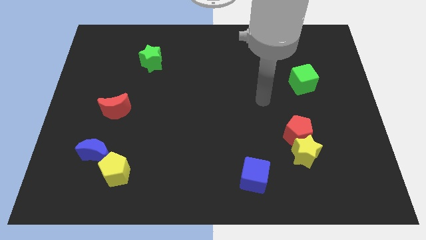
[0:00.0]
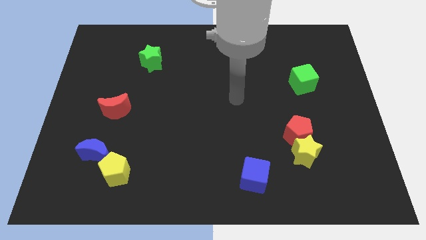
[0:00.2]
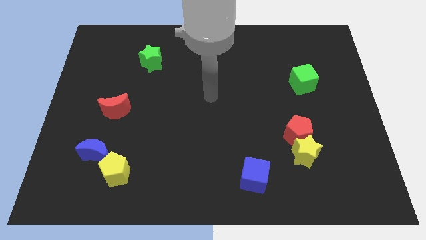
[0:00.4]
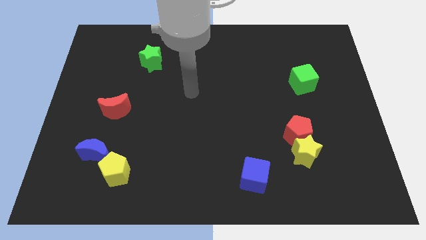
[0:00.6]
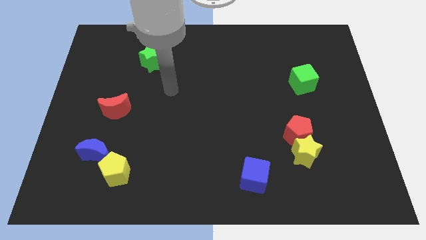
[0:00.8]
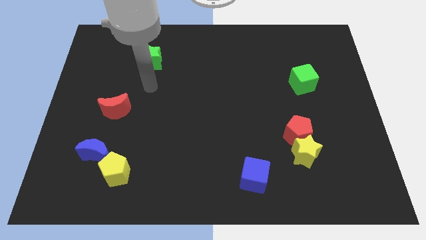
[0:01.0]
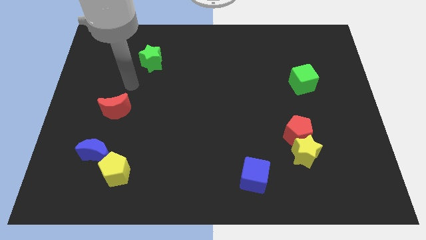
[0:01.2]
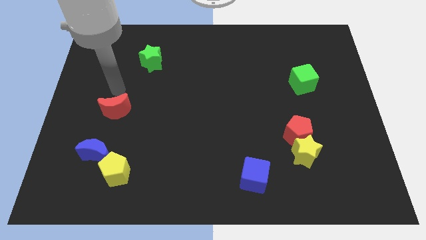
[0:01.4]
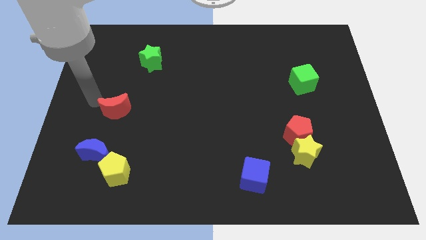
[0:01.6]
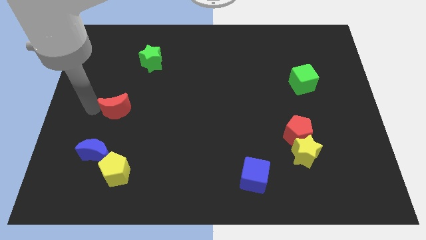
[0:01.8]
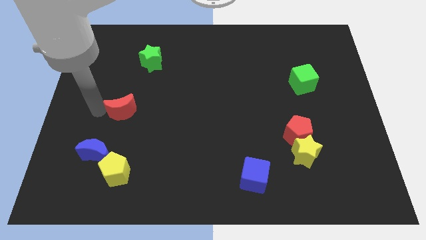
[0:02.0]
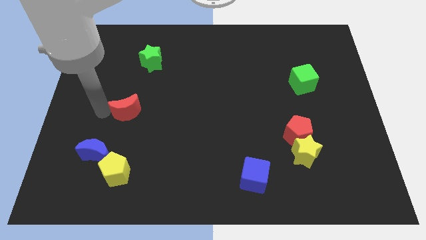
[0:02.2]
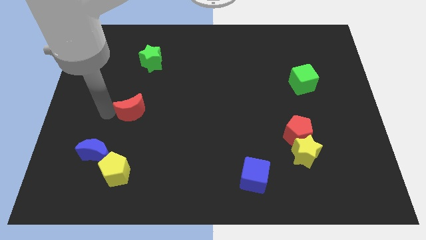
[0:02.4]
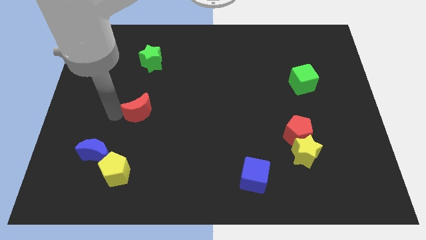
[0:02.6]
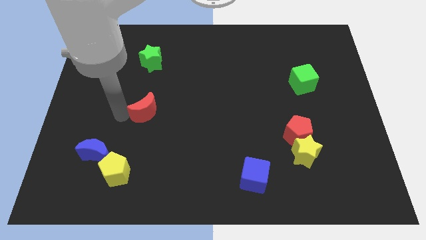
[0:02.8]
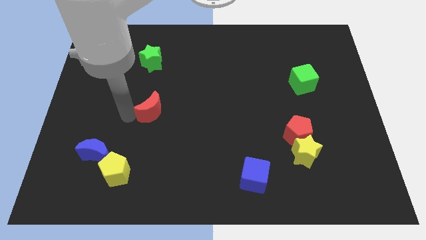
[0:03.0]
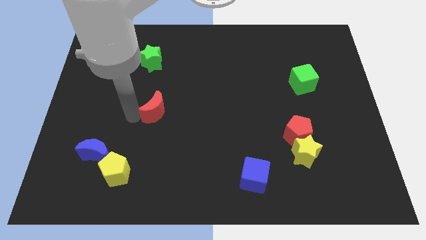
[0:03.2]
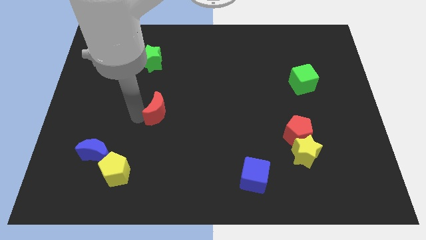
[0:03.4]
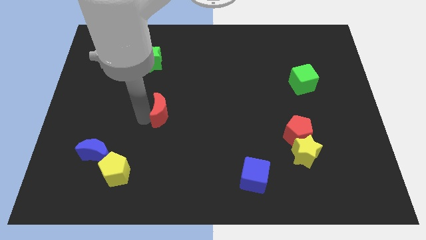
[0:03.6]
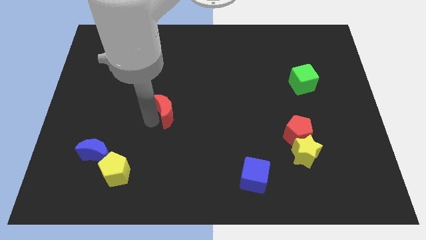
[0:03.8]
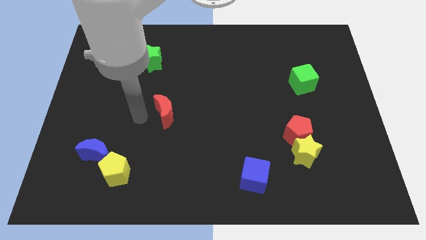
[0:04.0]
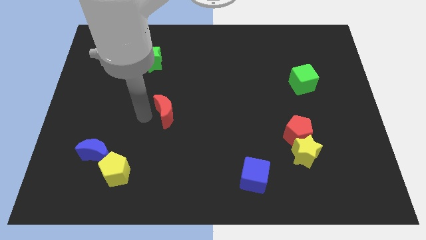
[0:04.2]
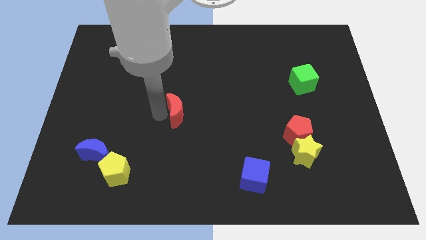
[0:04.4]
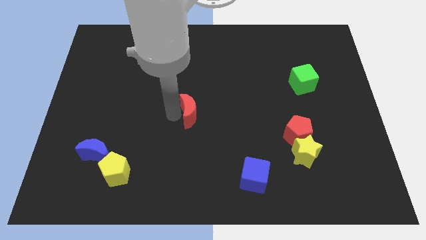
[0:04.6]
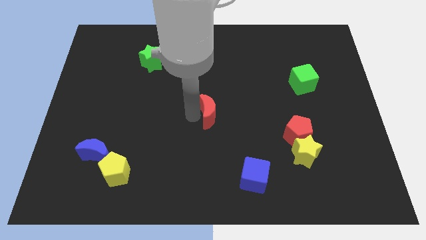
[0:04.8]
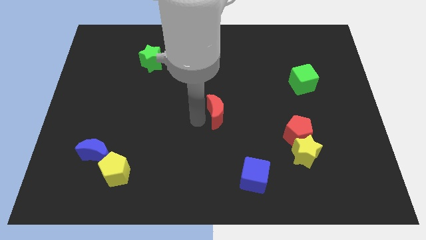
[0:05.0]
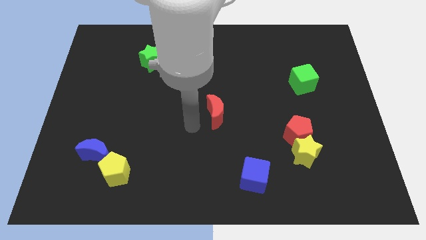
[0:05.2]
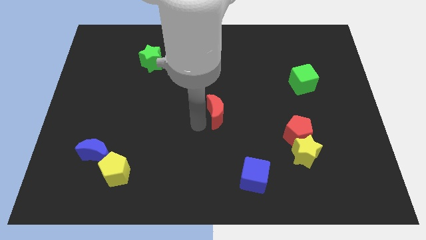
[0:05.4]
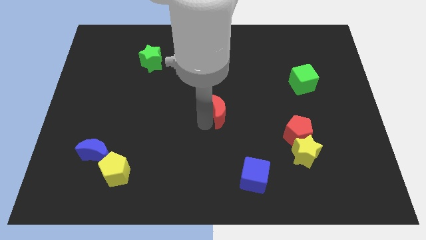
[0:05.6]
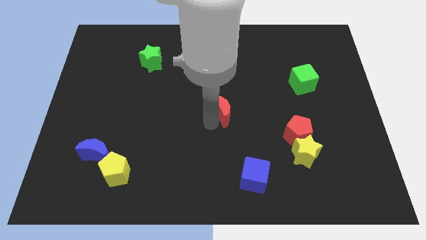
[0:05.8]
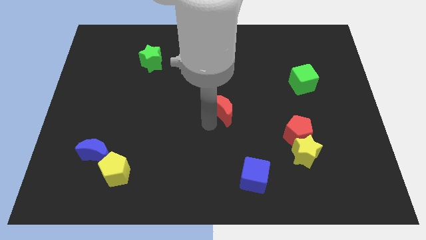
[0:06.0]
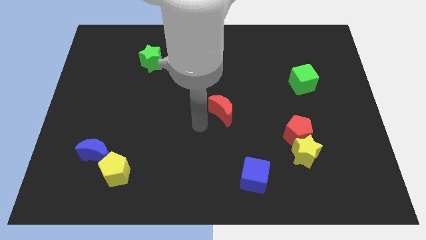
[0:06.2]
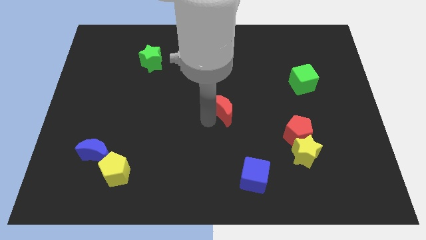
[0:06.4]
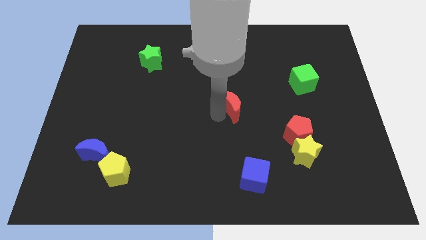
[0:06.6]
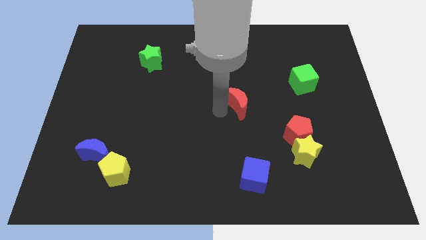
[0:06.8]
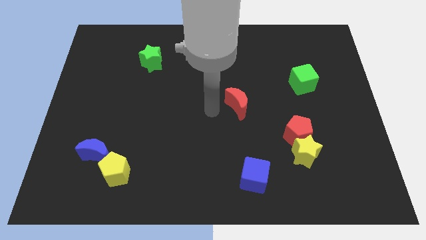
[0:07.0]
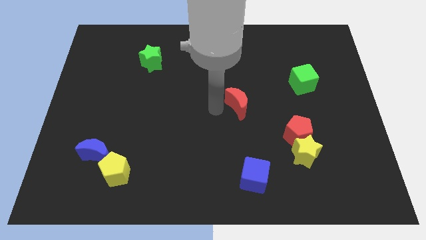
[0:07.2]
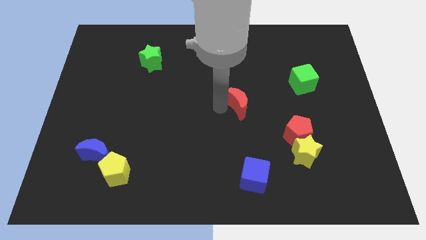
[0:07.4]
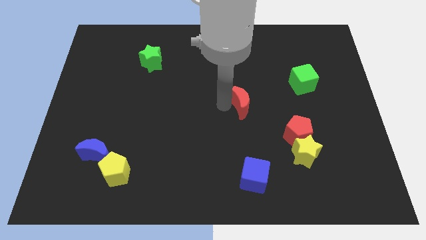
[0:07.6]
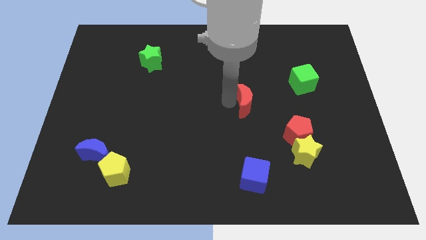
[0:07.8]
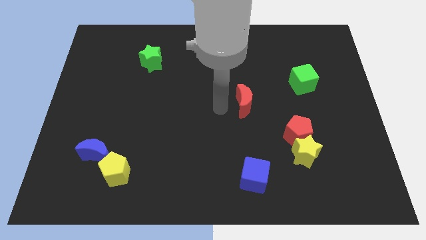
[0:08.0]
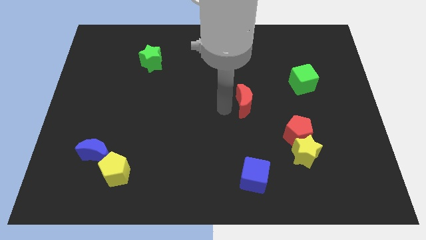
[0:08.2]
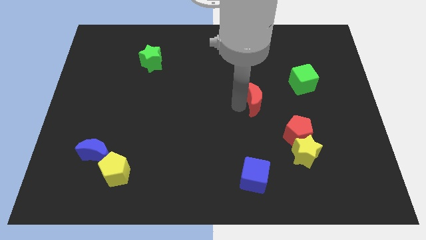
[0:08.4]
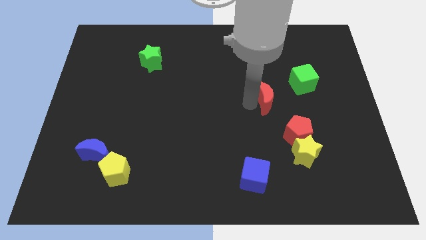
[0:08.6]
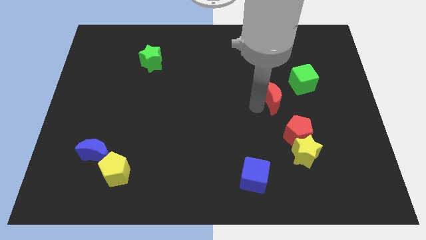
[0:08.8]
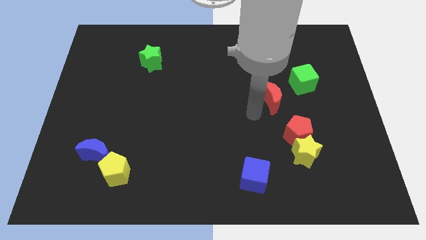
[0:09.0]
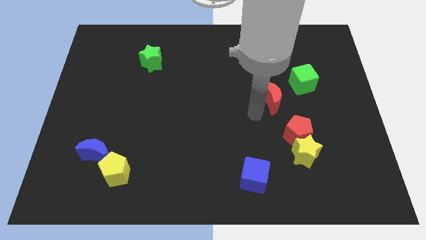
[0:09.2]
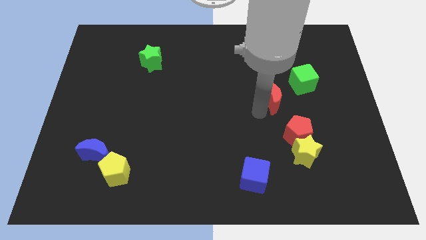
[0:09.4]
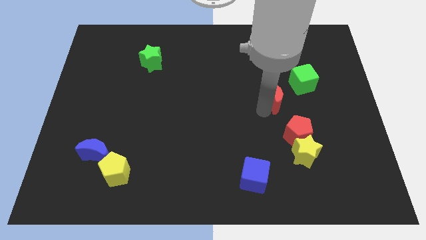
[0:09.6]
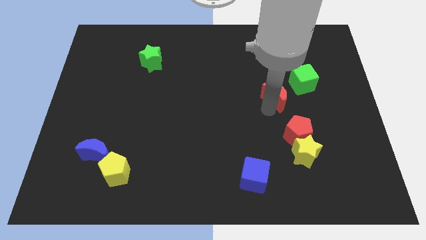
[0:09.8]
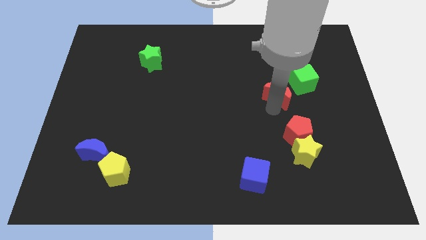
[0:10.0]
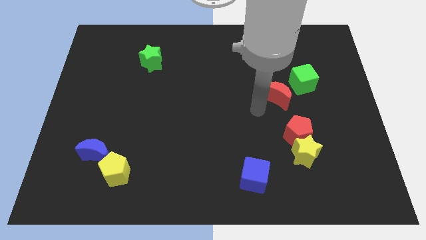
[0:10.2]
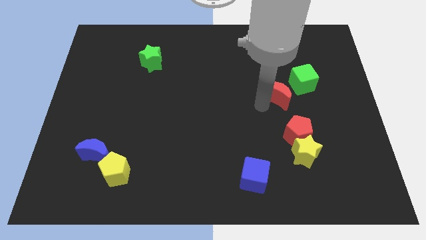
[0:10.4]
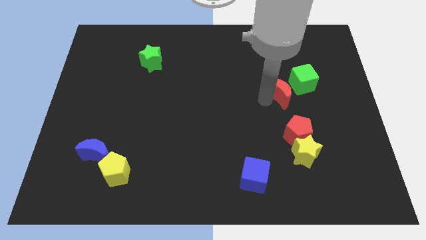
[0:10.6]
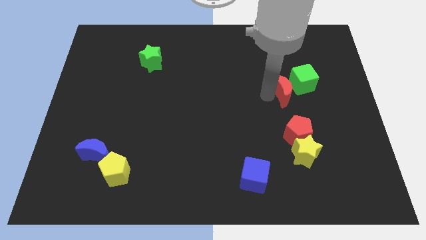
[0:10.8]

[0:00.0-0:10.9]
move the red moon to the green cube

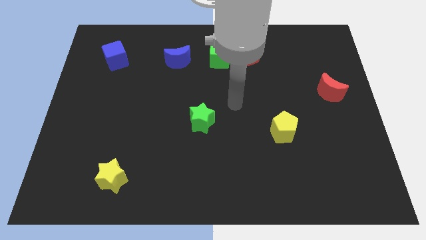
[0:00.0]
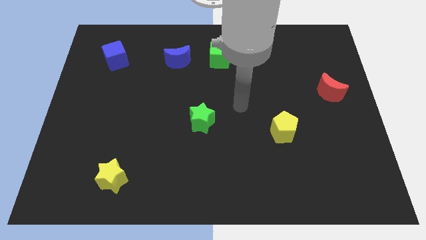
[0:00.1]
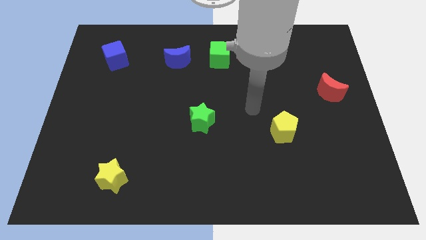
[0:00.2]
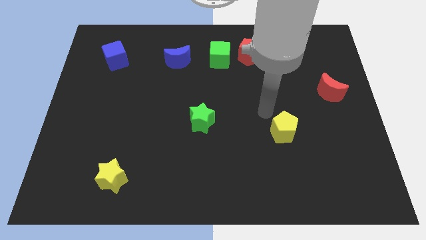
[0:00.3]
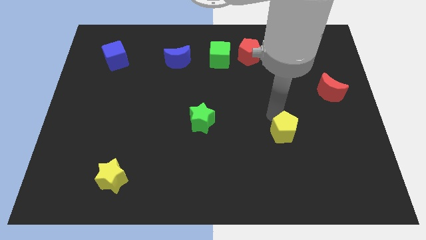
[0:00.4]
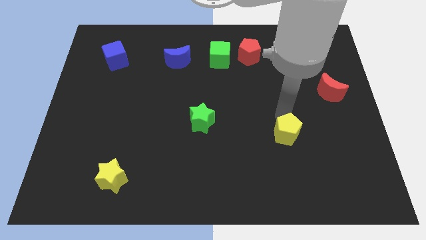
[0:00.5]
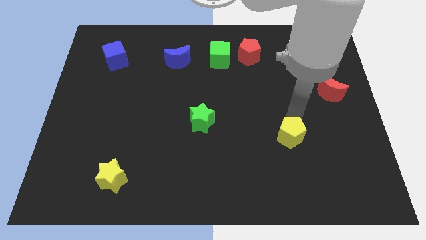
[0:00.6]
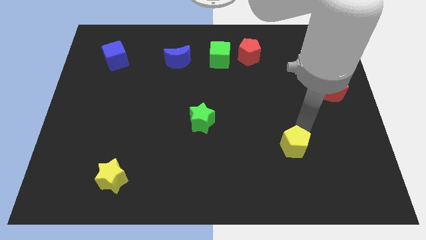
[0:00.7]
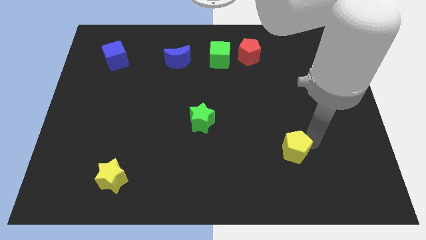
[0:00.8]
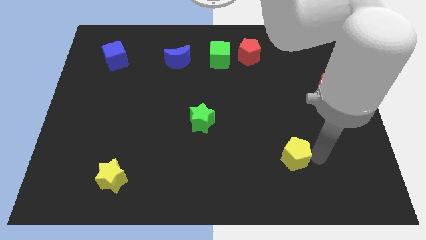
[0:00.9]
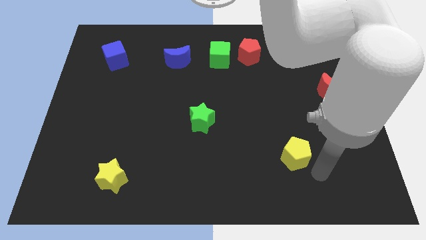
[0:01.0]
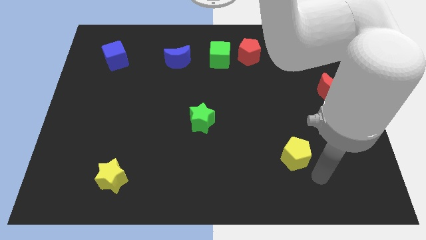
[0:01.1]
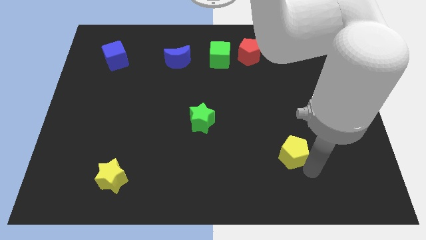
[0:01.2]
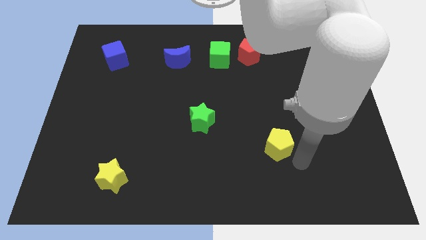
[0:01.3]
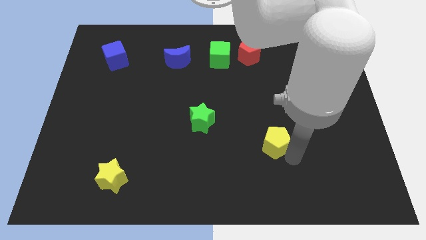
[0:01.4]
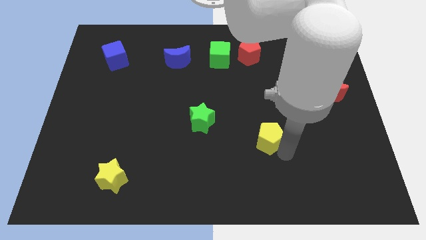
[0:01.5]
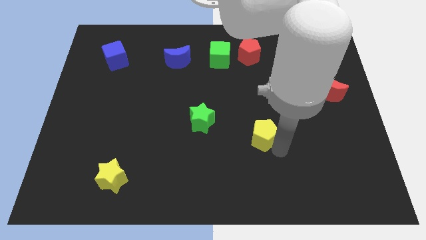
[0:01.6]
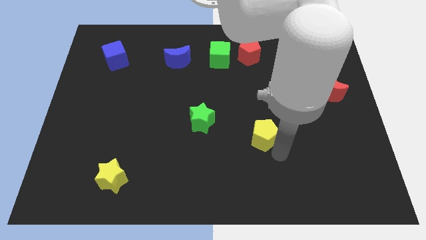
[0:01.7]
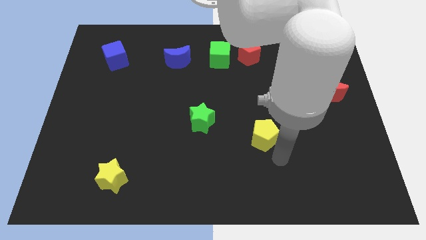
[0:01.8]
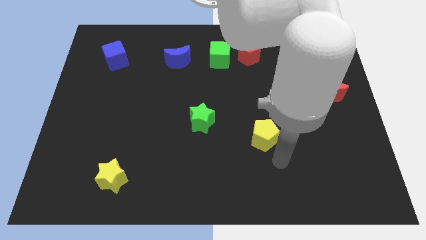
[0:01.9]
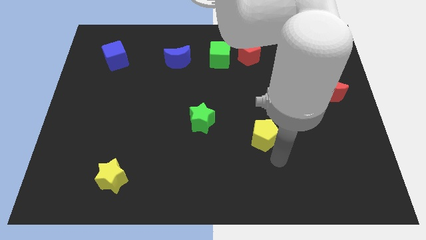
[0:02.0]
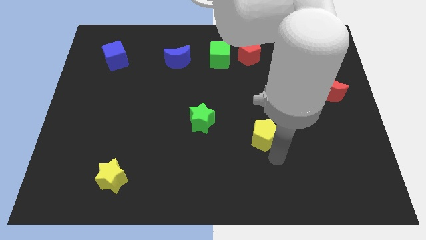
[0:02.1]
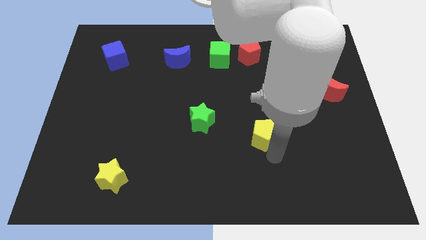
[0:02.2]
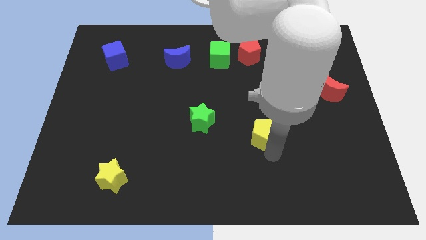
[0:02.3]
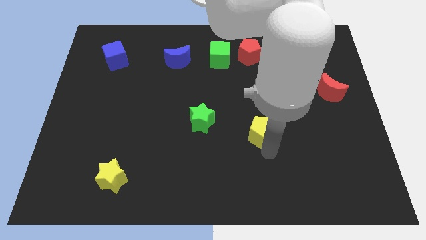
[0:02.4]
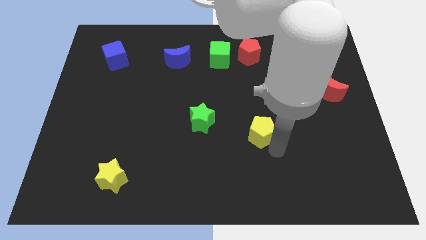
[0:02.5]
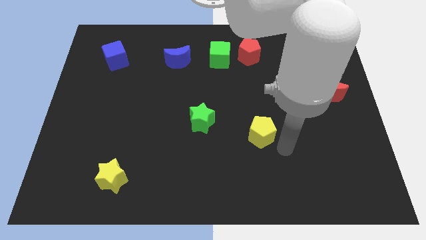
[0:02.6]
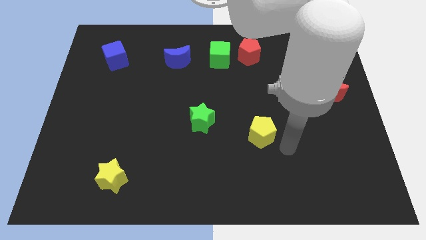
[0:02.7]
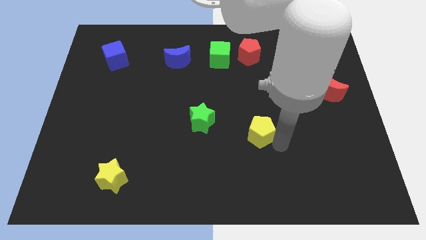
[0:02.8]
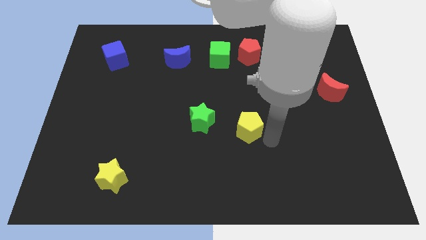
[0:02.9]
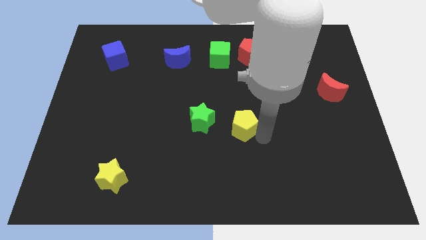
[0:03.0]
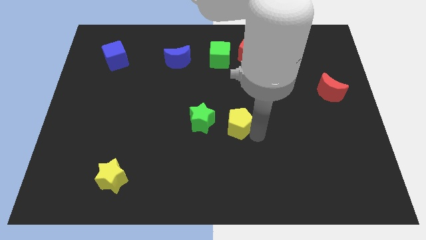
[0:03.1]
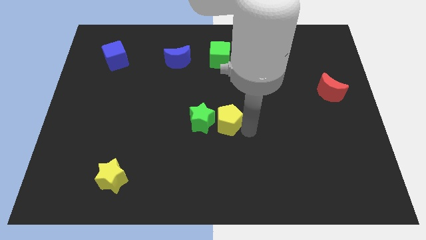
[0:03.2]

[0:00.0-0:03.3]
push the yellow pentagon towards the green star
